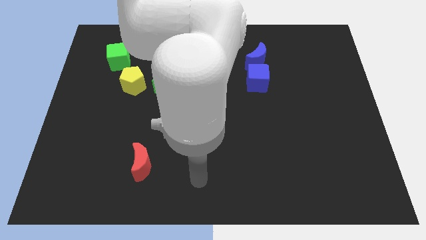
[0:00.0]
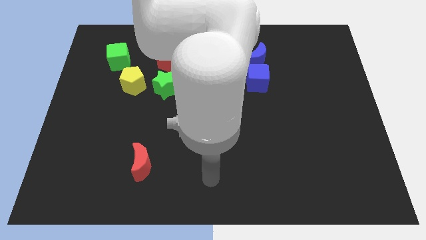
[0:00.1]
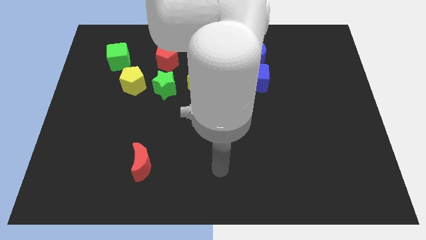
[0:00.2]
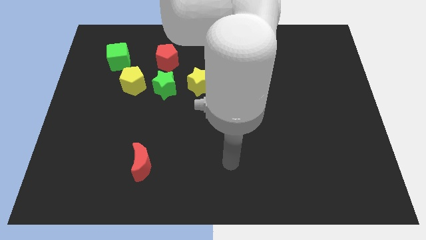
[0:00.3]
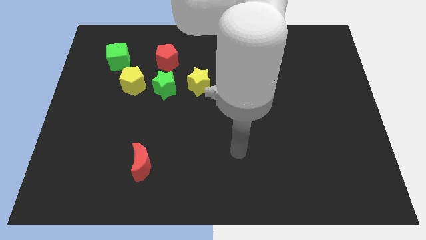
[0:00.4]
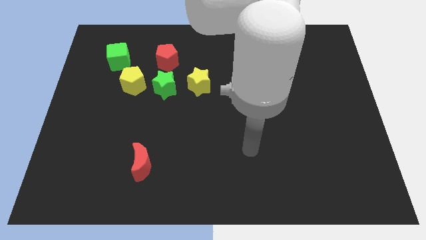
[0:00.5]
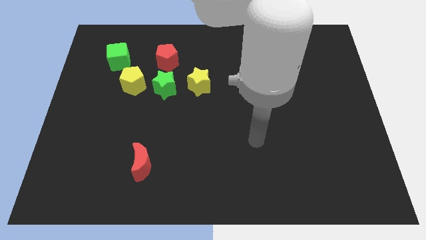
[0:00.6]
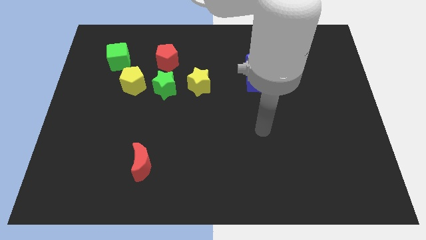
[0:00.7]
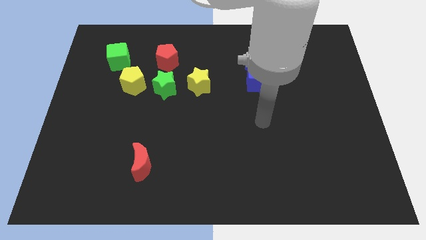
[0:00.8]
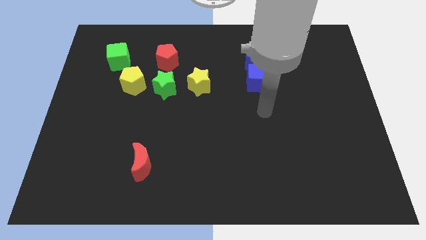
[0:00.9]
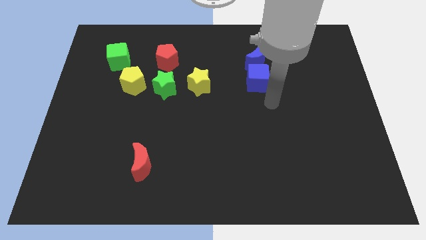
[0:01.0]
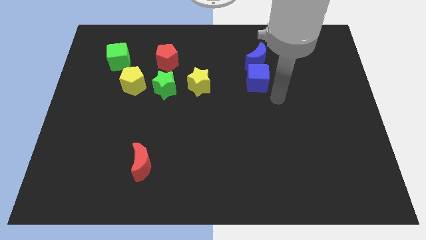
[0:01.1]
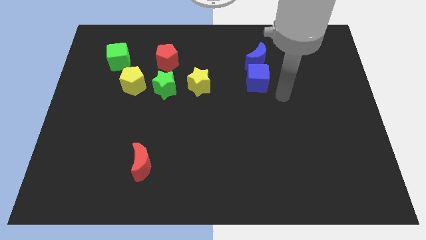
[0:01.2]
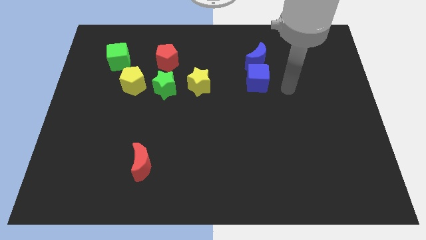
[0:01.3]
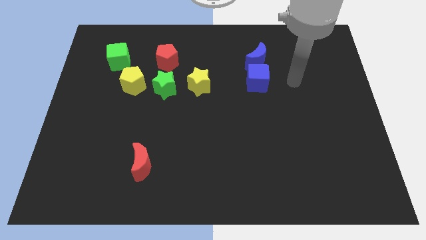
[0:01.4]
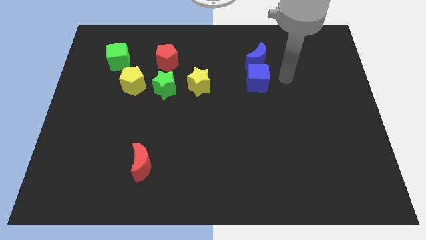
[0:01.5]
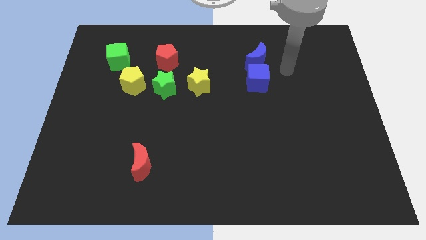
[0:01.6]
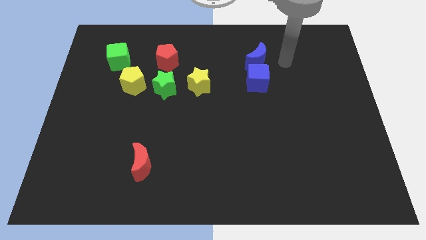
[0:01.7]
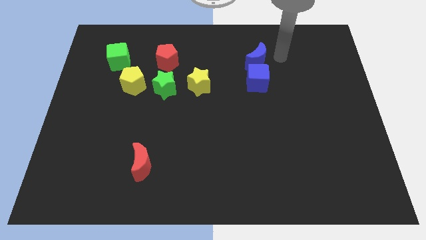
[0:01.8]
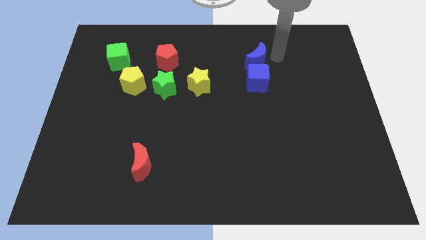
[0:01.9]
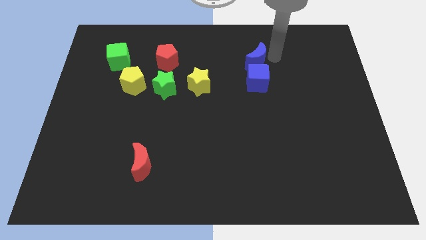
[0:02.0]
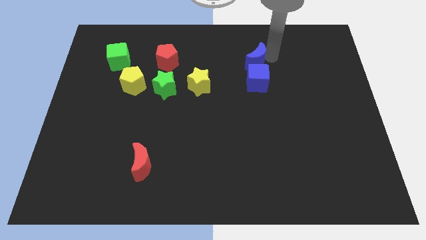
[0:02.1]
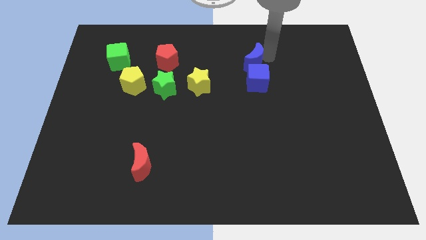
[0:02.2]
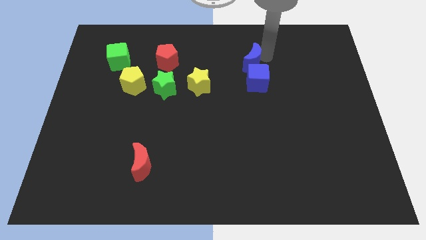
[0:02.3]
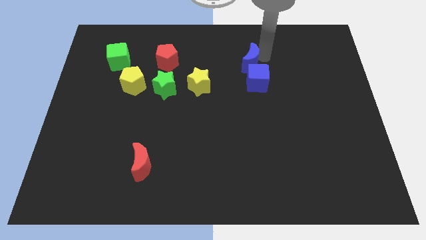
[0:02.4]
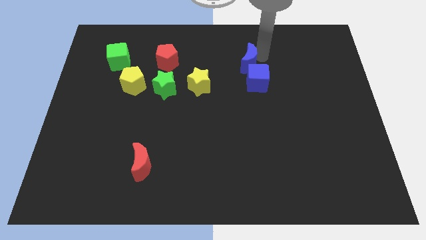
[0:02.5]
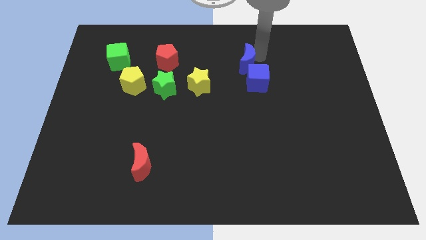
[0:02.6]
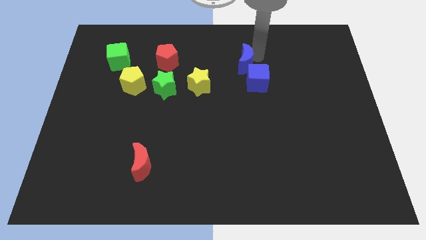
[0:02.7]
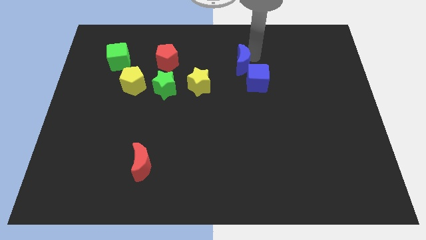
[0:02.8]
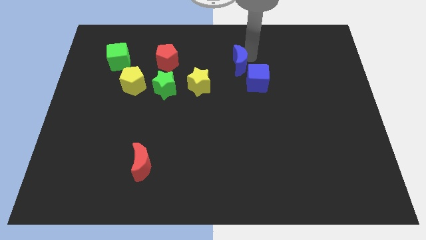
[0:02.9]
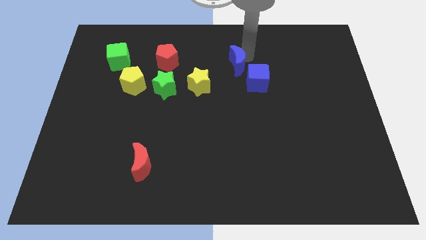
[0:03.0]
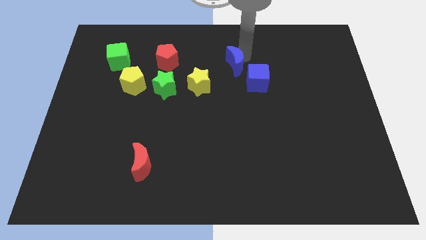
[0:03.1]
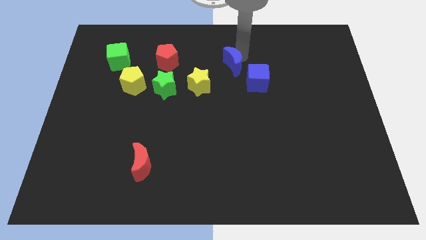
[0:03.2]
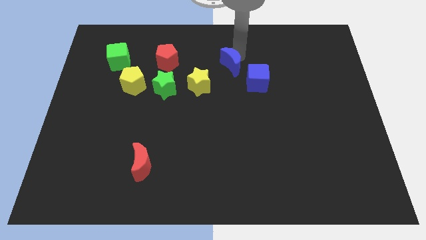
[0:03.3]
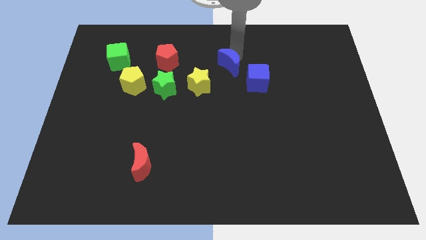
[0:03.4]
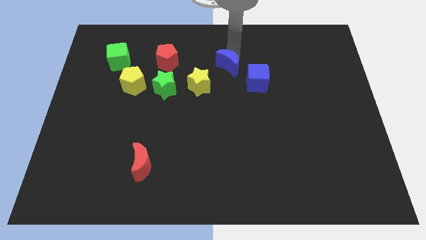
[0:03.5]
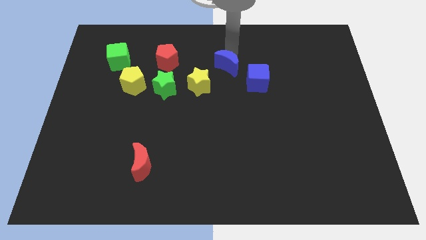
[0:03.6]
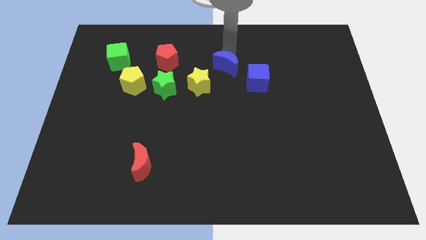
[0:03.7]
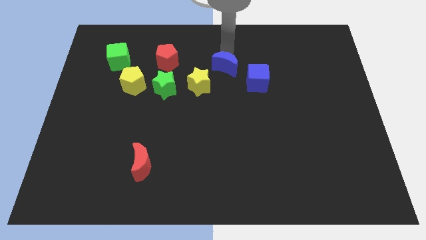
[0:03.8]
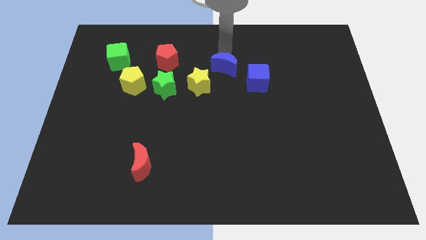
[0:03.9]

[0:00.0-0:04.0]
slightly slide the blue moon downwards and left diagonally

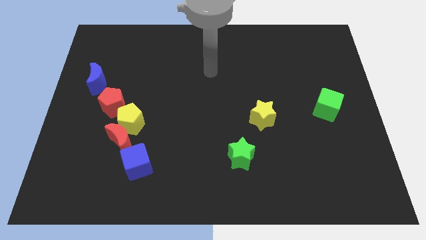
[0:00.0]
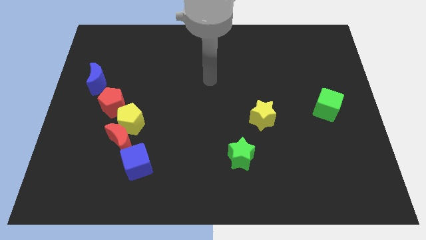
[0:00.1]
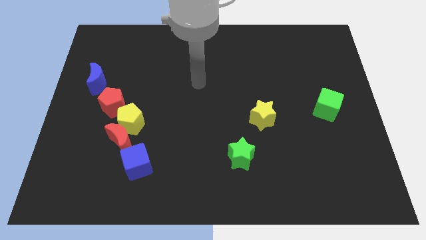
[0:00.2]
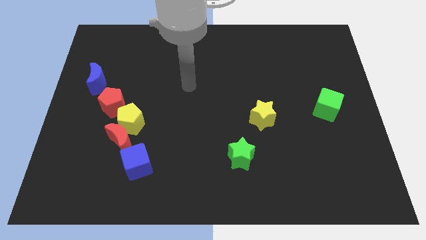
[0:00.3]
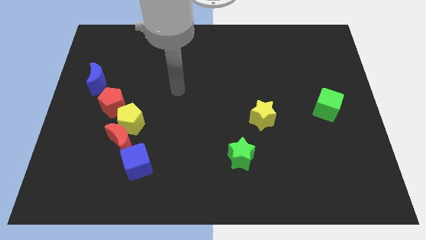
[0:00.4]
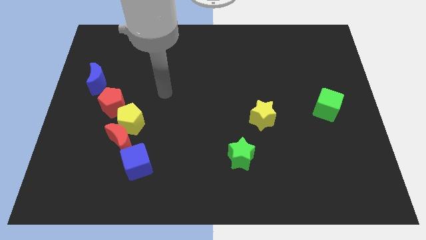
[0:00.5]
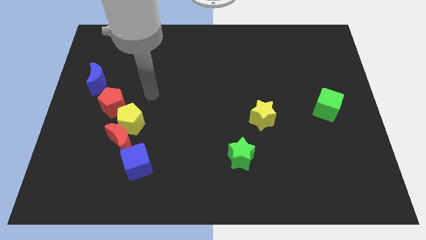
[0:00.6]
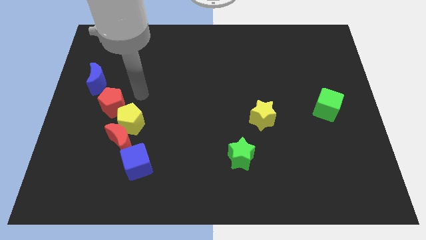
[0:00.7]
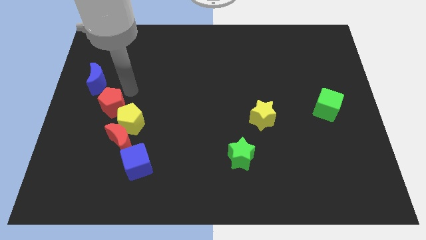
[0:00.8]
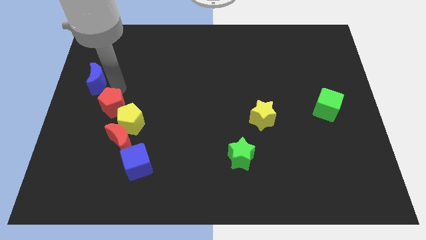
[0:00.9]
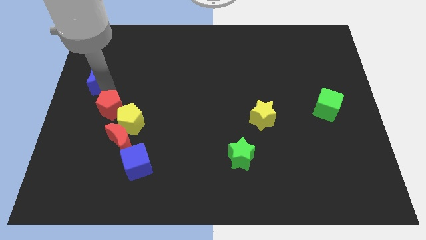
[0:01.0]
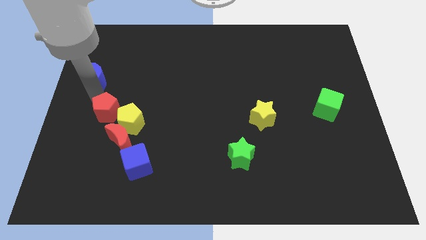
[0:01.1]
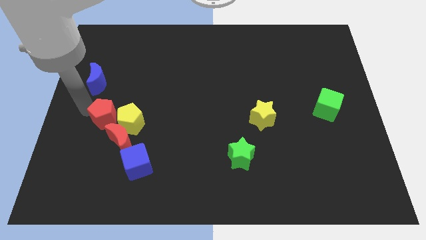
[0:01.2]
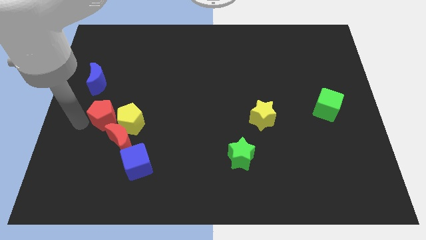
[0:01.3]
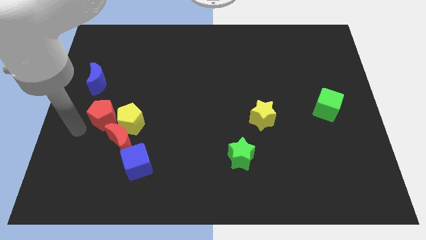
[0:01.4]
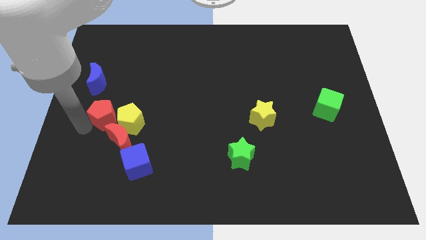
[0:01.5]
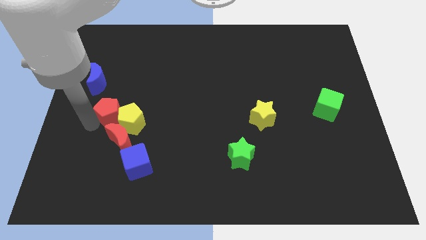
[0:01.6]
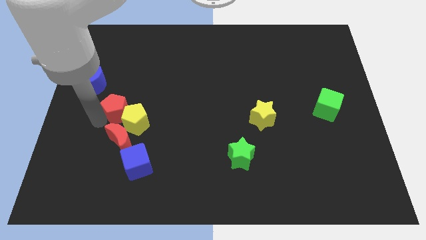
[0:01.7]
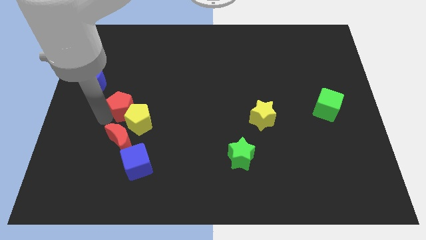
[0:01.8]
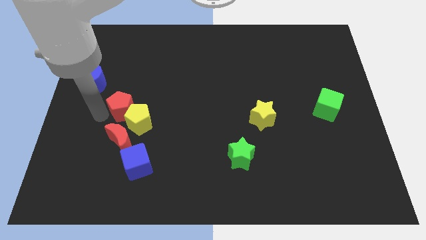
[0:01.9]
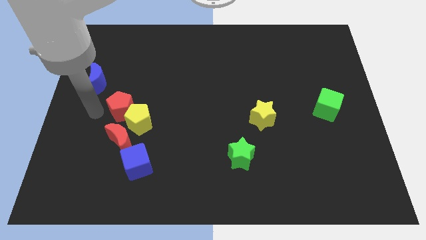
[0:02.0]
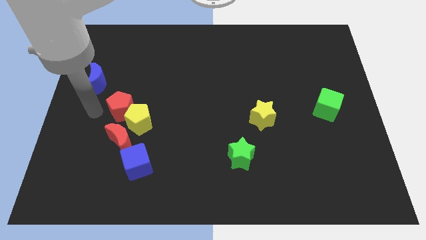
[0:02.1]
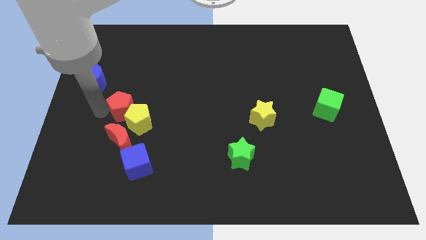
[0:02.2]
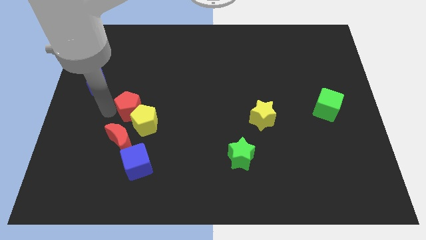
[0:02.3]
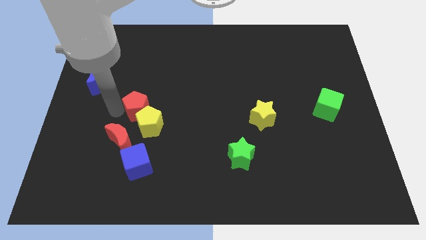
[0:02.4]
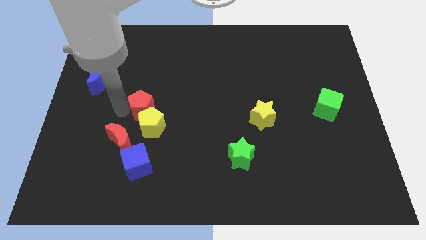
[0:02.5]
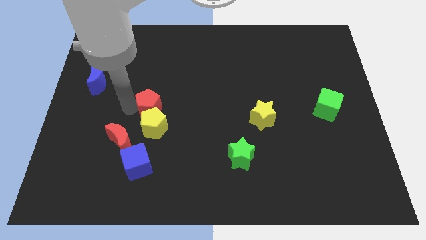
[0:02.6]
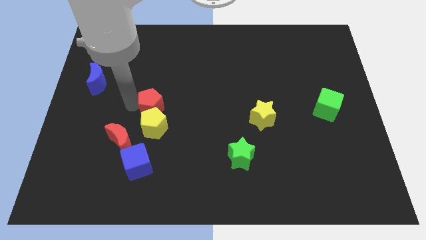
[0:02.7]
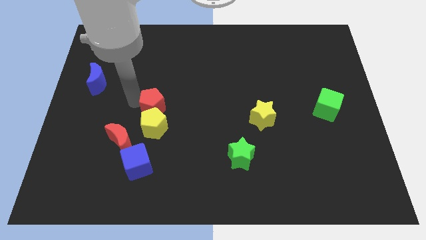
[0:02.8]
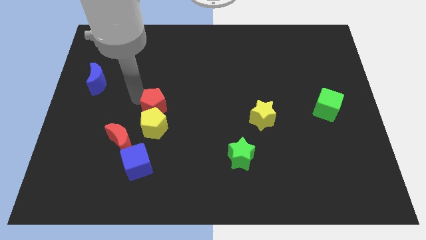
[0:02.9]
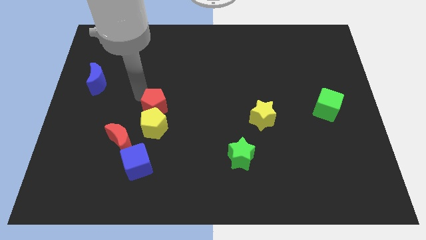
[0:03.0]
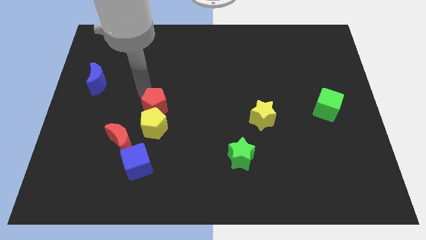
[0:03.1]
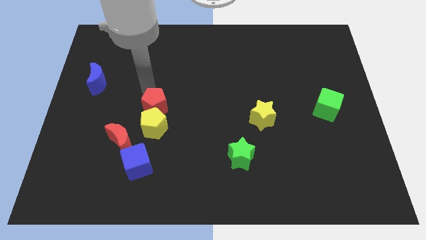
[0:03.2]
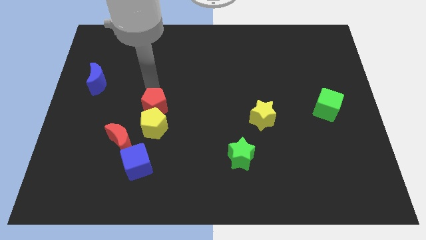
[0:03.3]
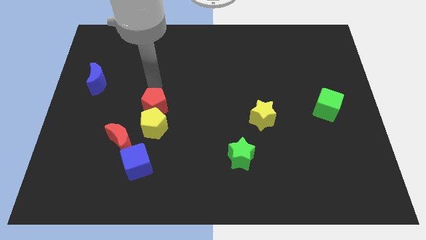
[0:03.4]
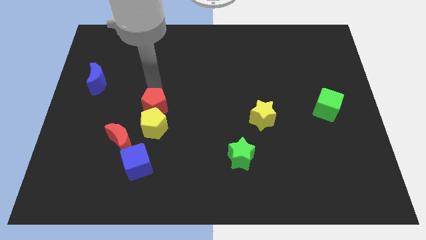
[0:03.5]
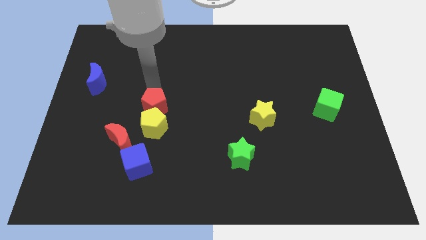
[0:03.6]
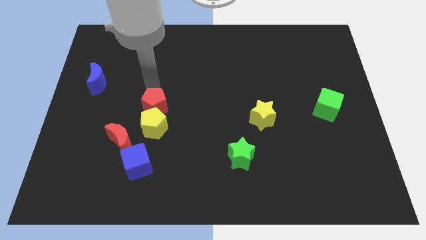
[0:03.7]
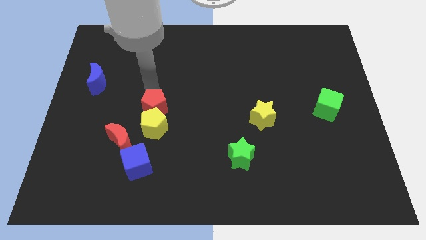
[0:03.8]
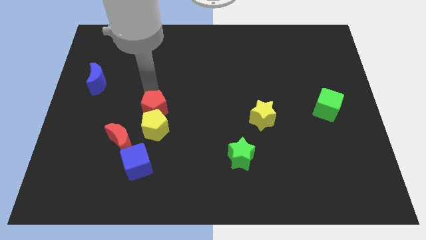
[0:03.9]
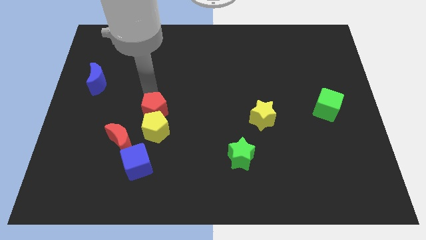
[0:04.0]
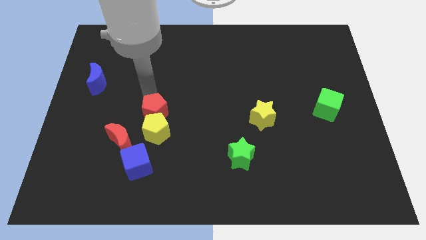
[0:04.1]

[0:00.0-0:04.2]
move the red pentagon slightly downwards and then right
